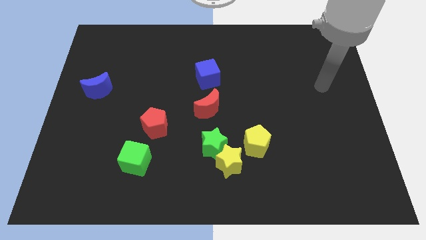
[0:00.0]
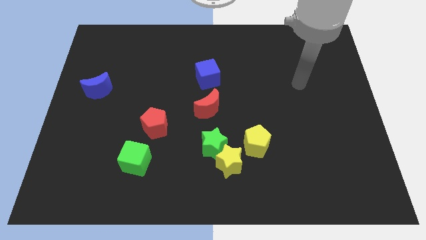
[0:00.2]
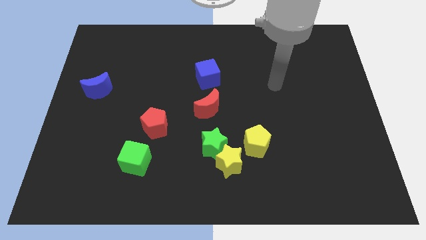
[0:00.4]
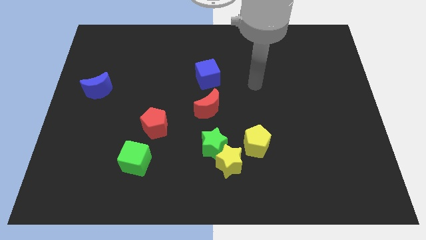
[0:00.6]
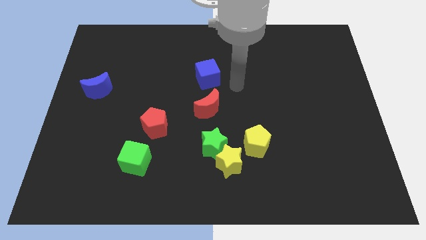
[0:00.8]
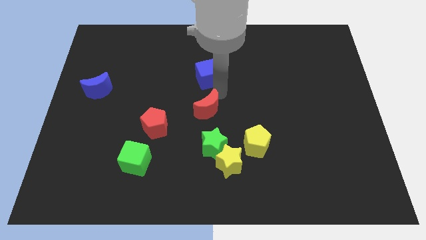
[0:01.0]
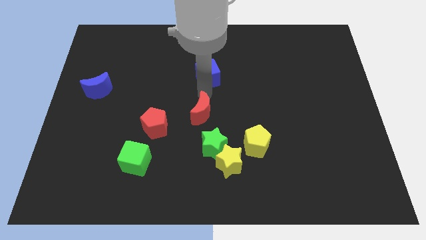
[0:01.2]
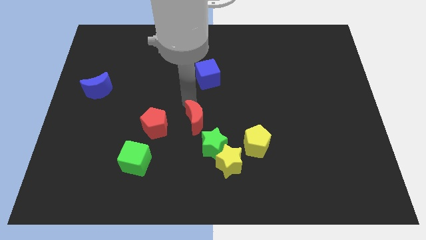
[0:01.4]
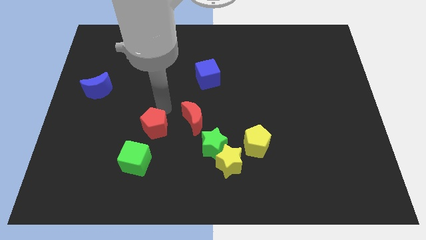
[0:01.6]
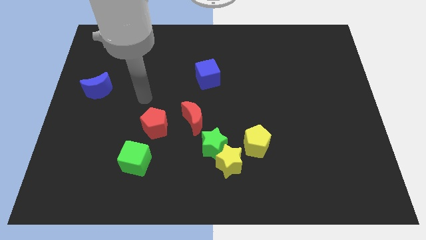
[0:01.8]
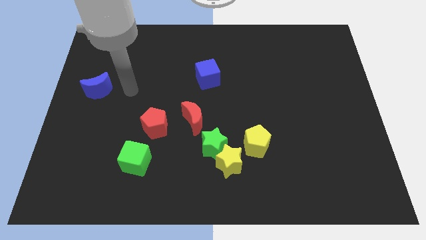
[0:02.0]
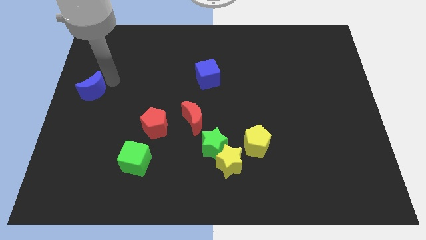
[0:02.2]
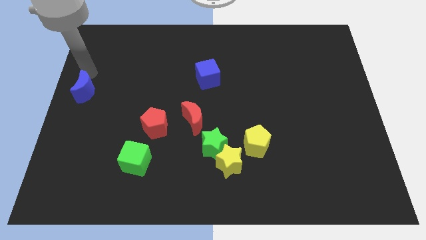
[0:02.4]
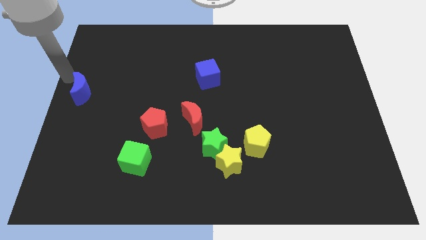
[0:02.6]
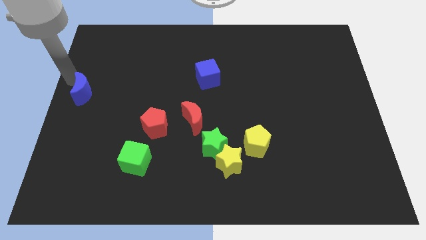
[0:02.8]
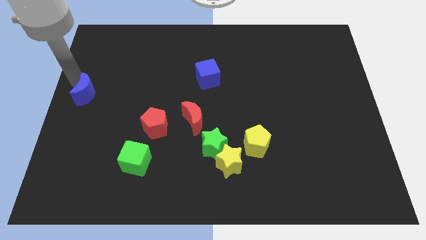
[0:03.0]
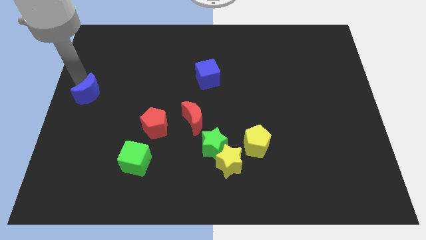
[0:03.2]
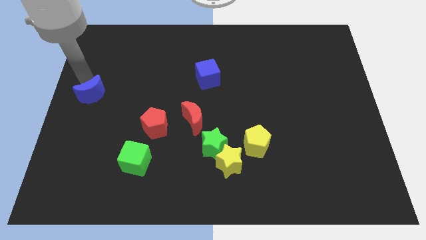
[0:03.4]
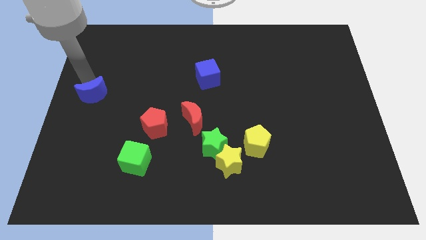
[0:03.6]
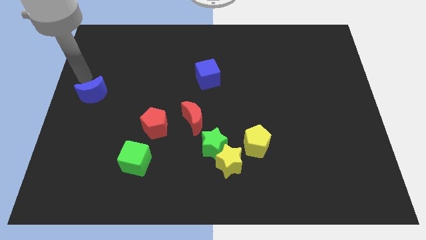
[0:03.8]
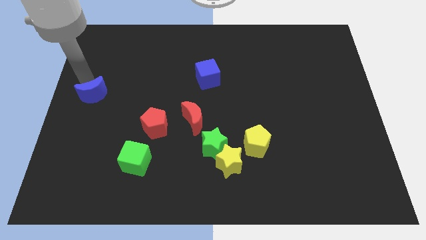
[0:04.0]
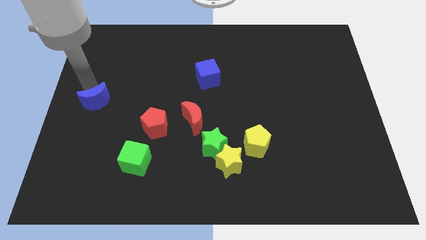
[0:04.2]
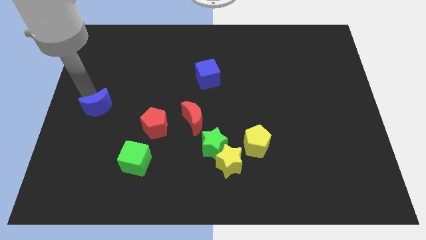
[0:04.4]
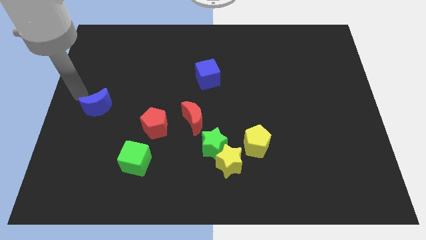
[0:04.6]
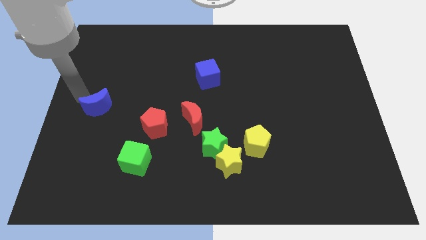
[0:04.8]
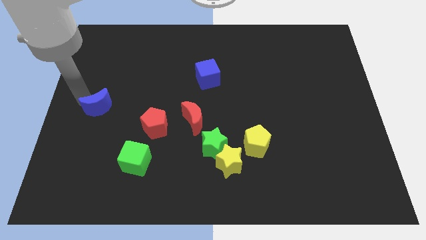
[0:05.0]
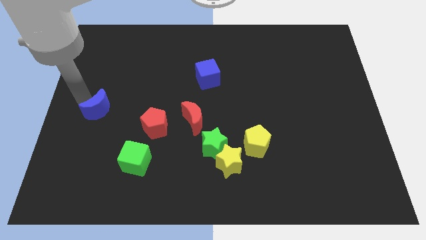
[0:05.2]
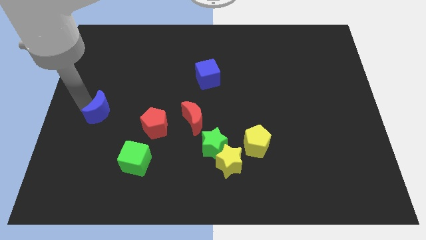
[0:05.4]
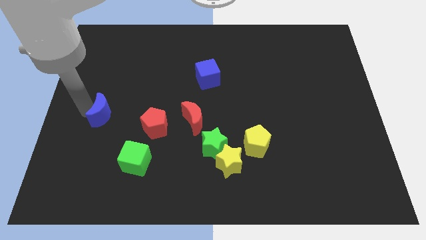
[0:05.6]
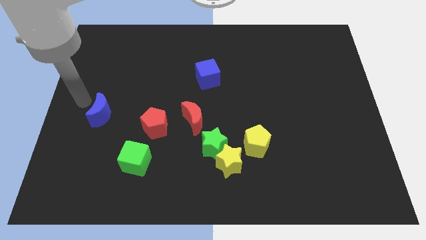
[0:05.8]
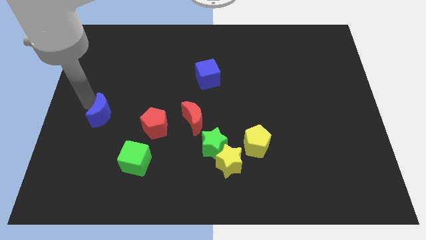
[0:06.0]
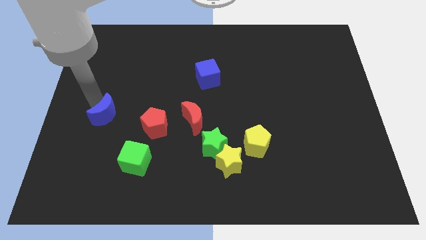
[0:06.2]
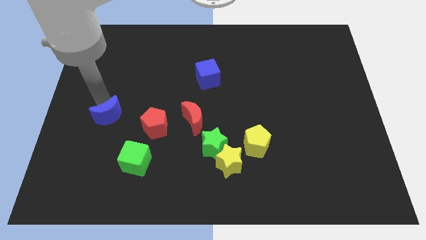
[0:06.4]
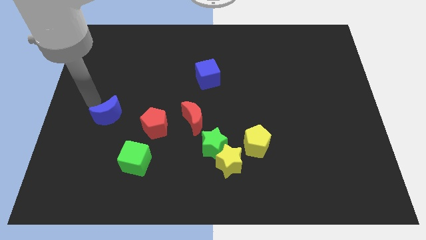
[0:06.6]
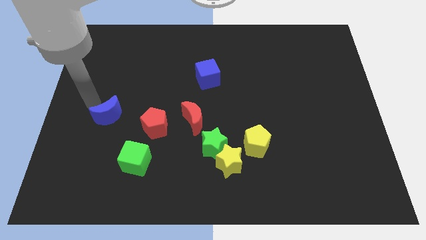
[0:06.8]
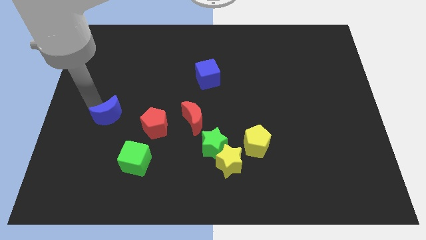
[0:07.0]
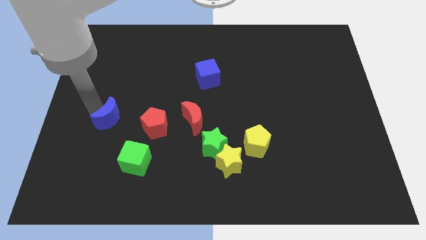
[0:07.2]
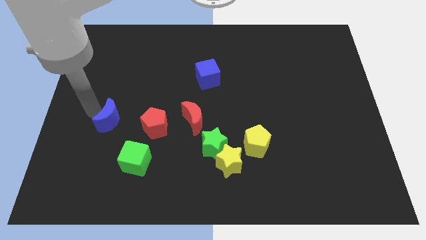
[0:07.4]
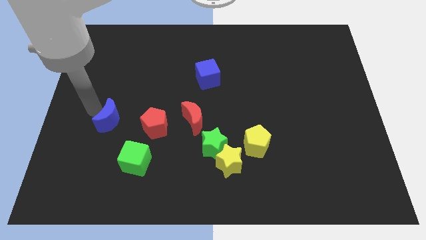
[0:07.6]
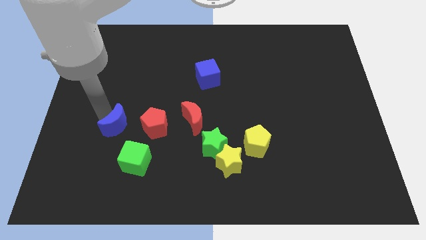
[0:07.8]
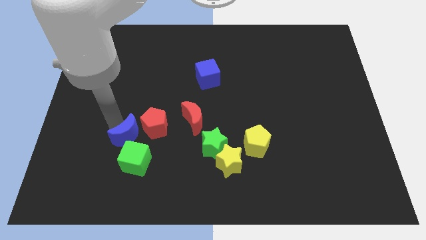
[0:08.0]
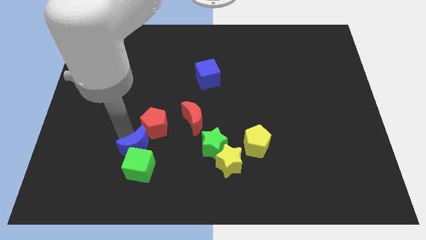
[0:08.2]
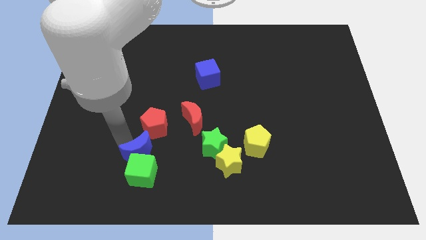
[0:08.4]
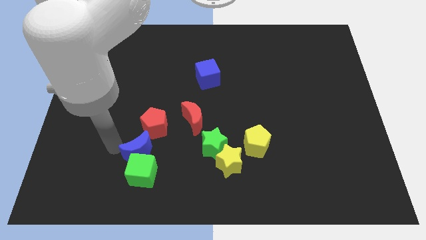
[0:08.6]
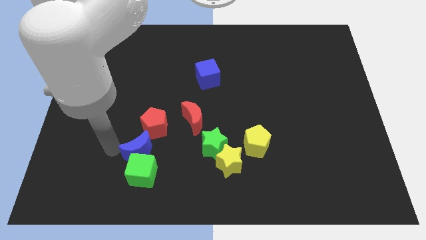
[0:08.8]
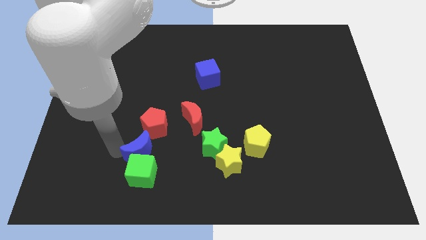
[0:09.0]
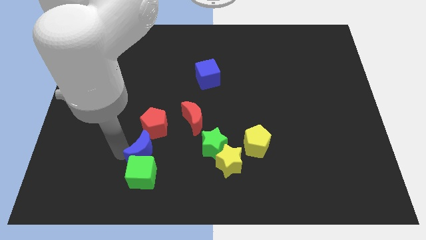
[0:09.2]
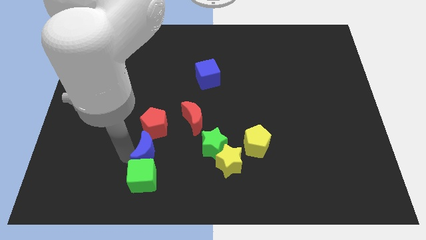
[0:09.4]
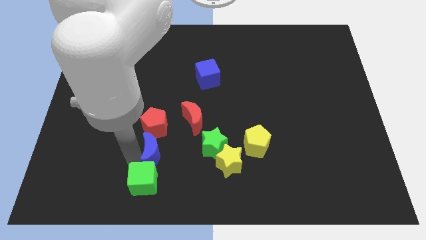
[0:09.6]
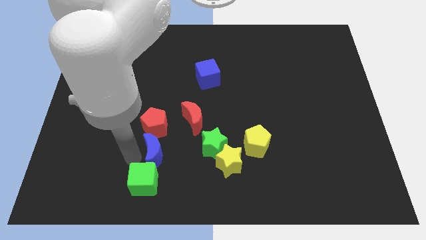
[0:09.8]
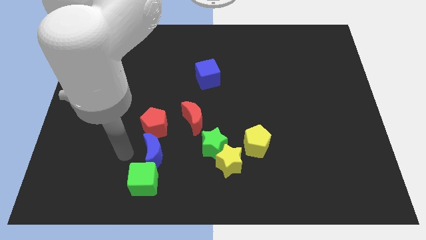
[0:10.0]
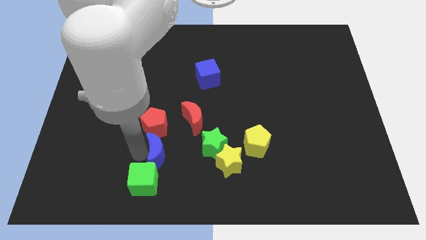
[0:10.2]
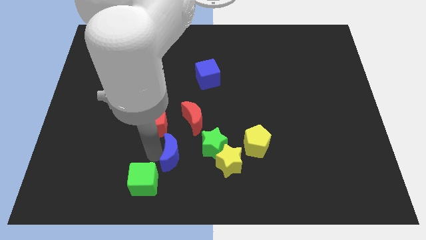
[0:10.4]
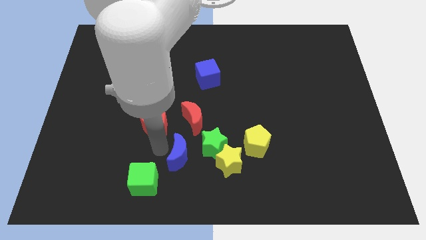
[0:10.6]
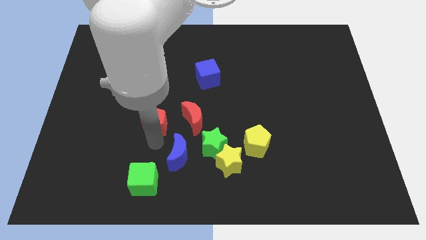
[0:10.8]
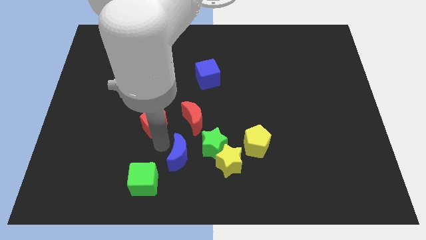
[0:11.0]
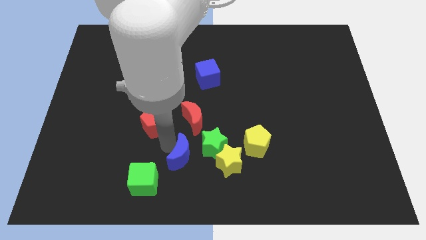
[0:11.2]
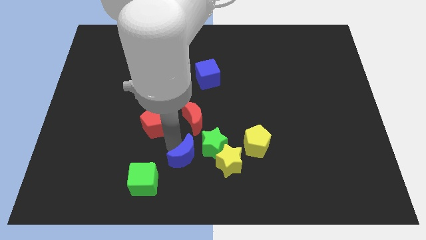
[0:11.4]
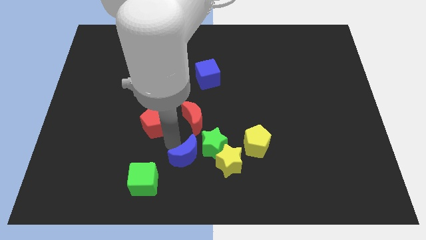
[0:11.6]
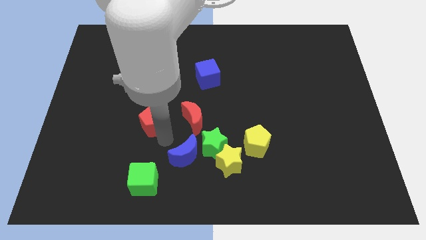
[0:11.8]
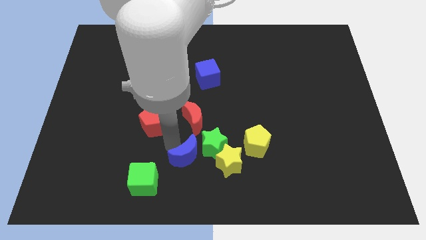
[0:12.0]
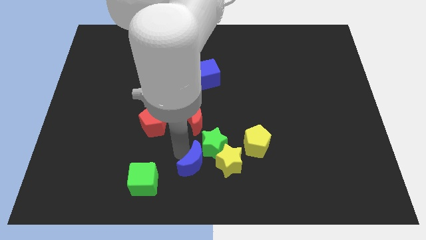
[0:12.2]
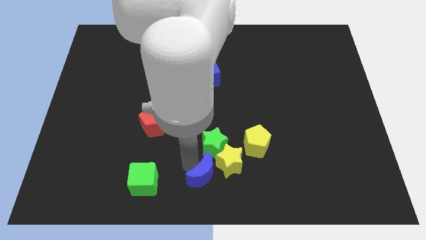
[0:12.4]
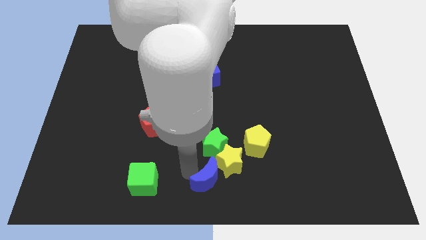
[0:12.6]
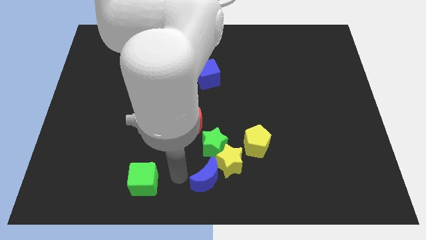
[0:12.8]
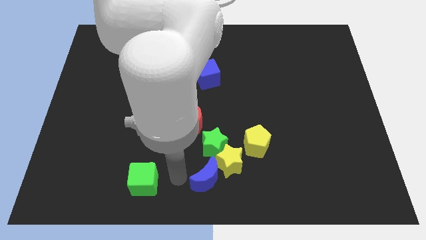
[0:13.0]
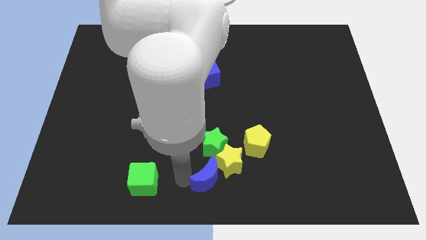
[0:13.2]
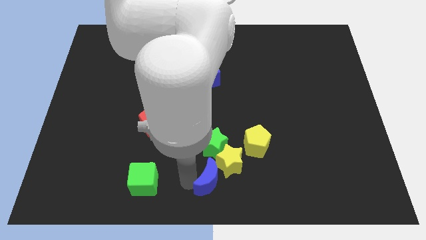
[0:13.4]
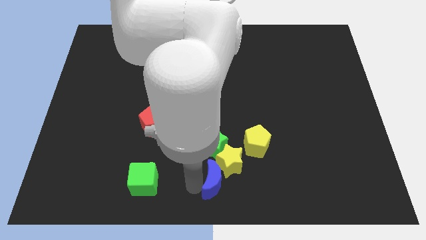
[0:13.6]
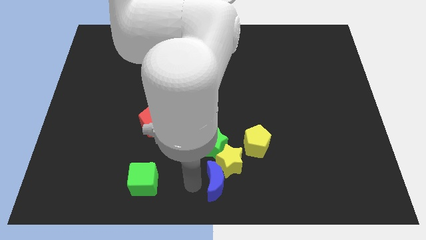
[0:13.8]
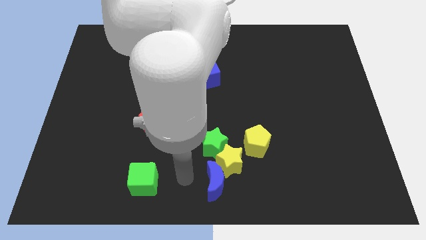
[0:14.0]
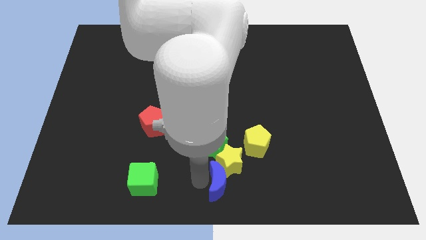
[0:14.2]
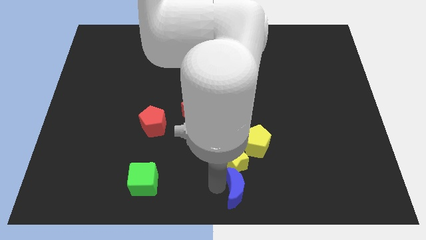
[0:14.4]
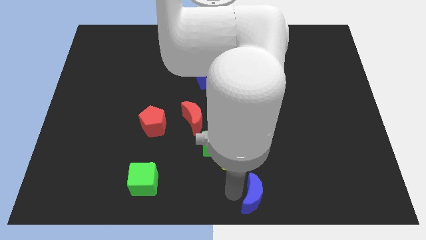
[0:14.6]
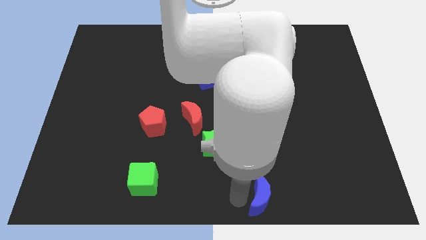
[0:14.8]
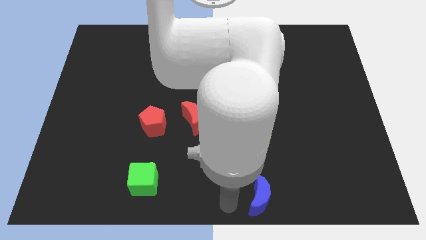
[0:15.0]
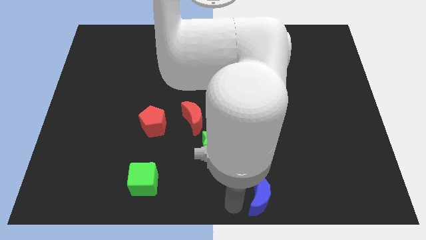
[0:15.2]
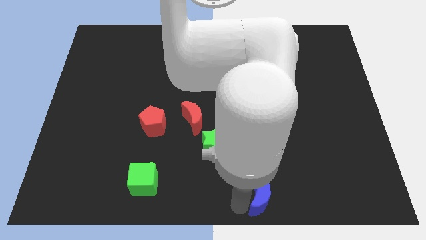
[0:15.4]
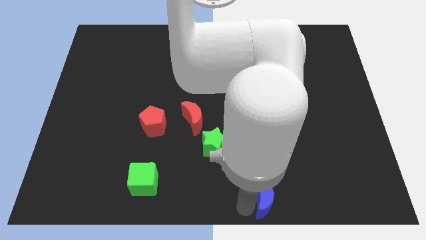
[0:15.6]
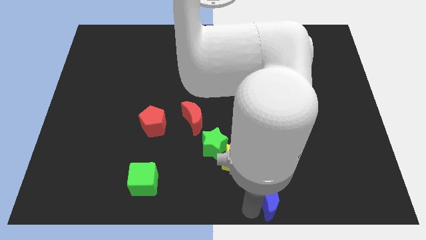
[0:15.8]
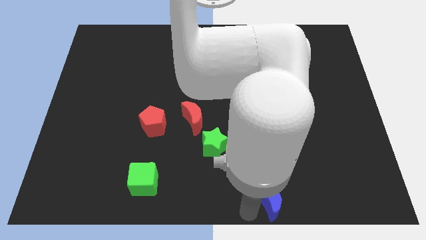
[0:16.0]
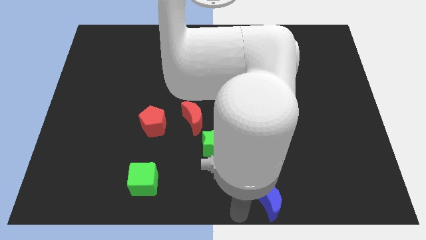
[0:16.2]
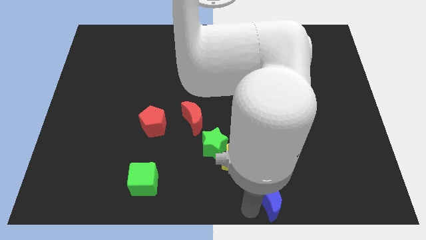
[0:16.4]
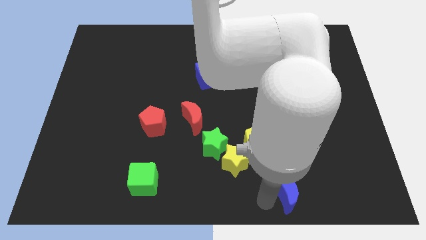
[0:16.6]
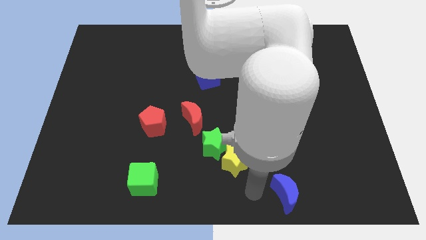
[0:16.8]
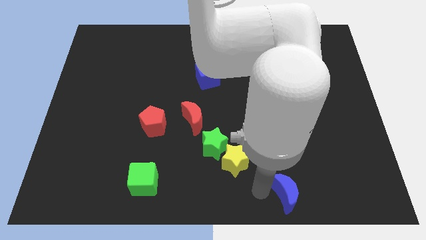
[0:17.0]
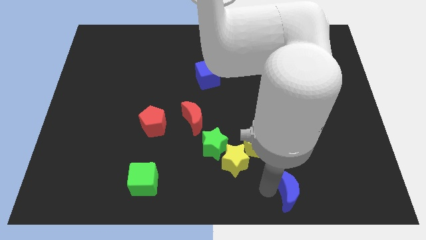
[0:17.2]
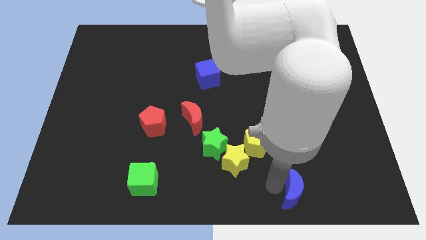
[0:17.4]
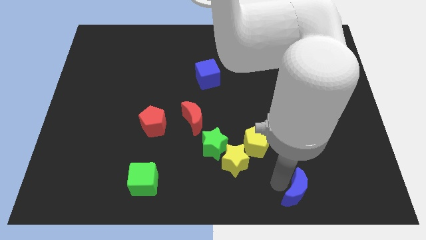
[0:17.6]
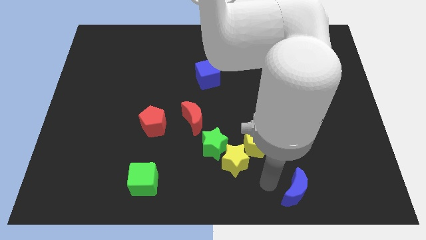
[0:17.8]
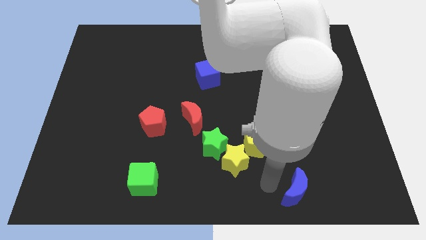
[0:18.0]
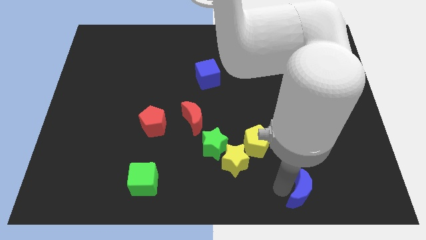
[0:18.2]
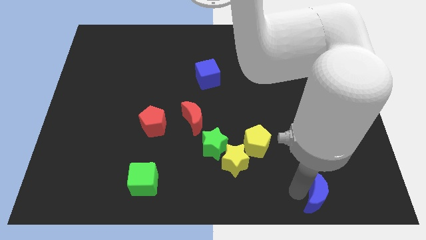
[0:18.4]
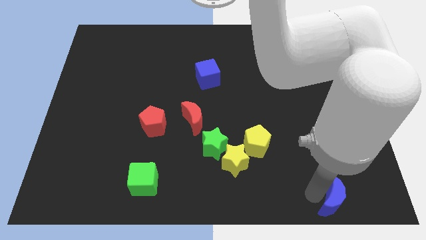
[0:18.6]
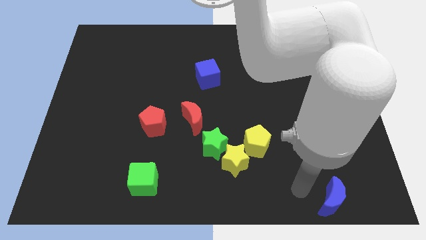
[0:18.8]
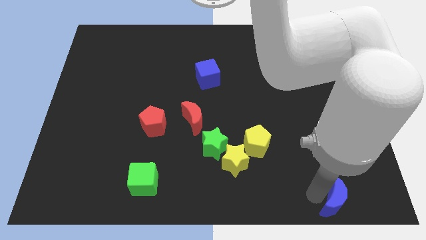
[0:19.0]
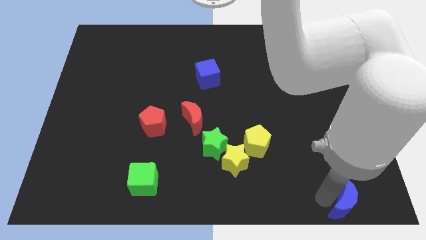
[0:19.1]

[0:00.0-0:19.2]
slide the blue moon to the bottom right
